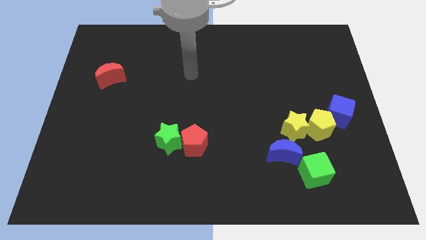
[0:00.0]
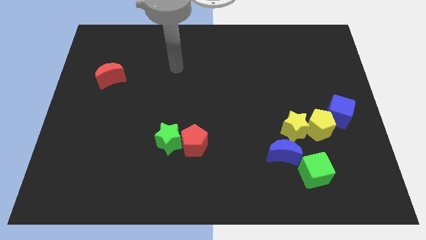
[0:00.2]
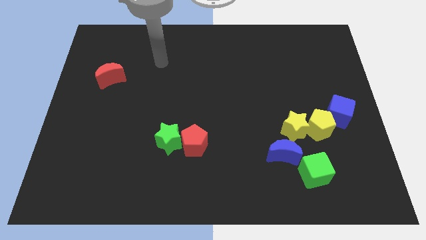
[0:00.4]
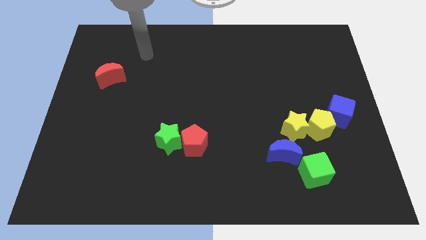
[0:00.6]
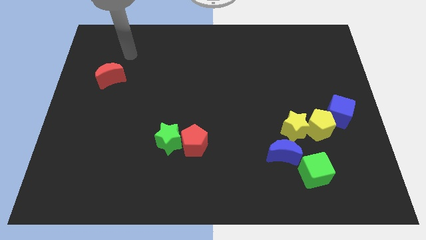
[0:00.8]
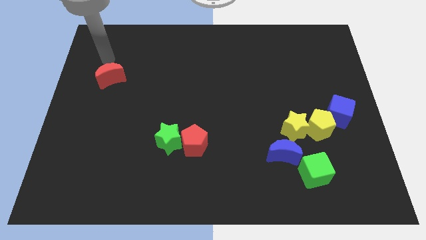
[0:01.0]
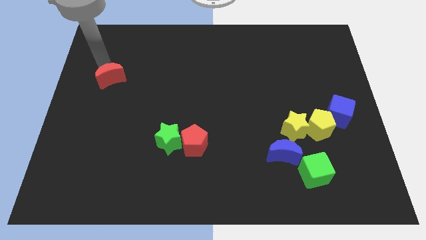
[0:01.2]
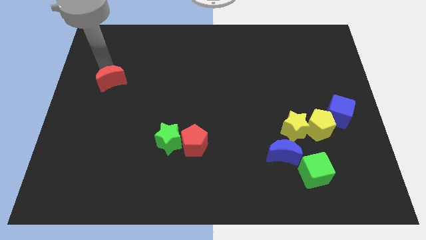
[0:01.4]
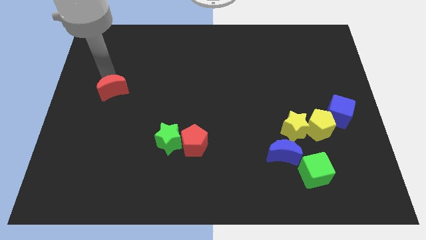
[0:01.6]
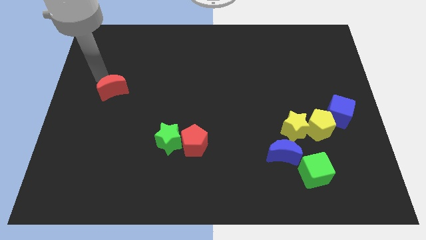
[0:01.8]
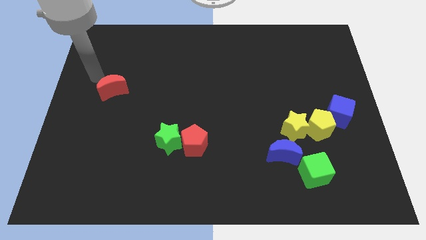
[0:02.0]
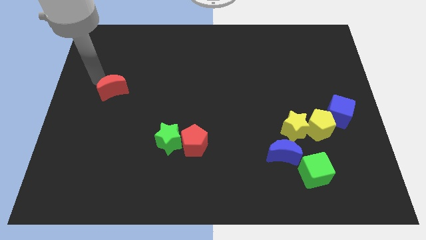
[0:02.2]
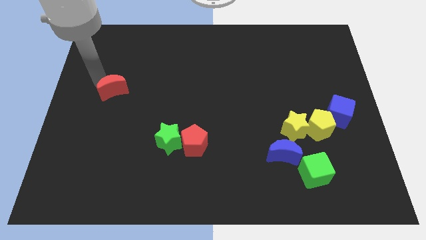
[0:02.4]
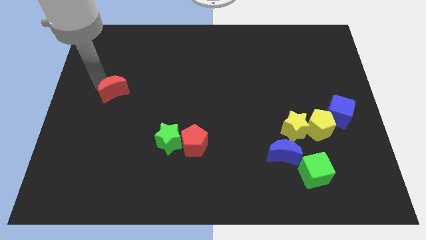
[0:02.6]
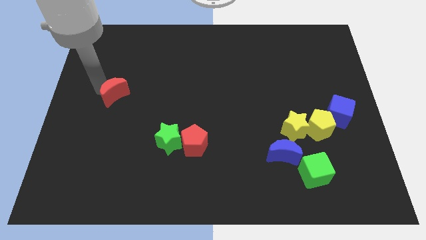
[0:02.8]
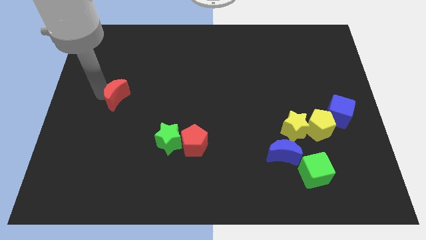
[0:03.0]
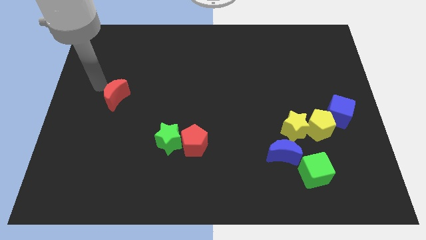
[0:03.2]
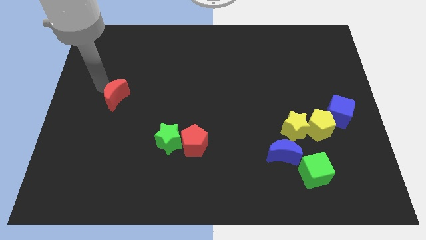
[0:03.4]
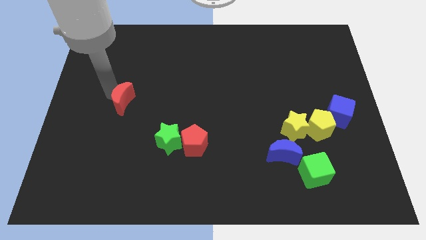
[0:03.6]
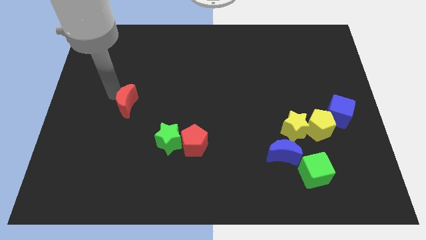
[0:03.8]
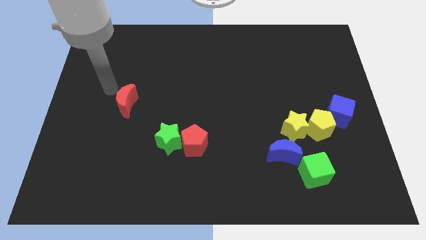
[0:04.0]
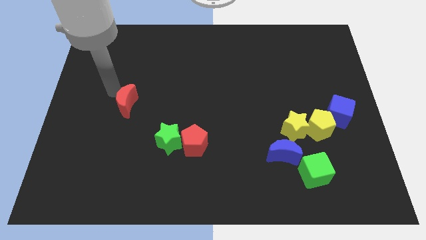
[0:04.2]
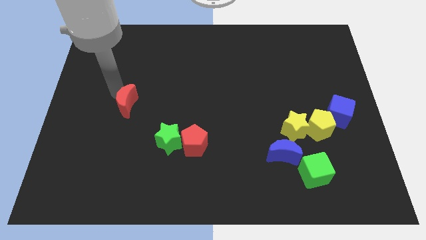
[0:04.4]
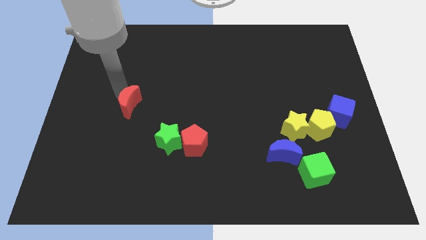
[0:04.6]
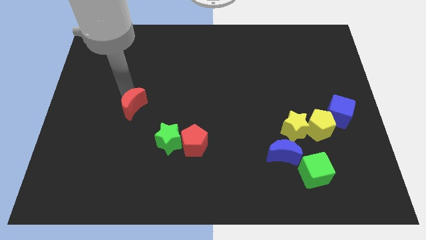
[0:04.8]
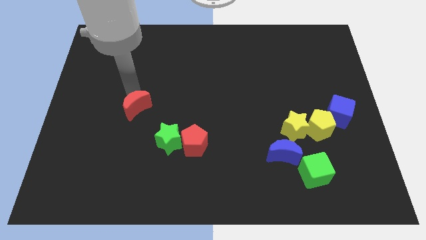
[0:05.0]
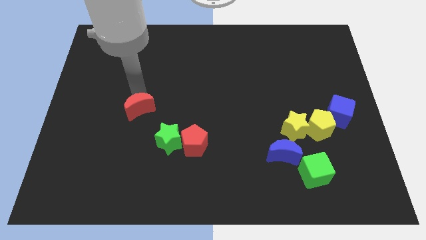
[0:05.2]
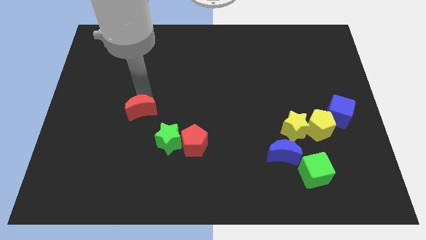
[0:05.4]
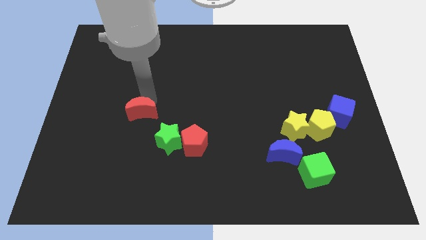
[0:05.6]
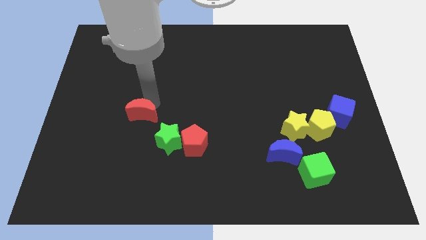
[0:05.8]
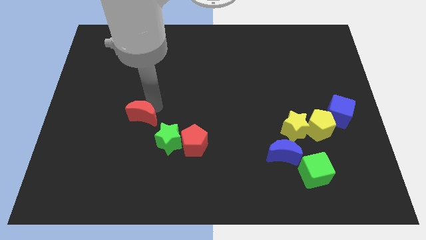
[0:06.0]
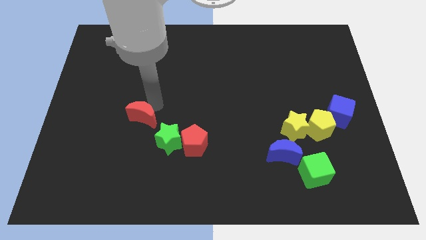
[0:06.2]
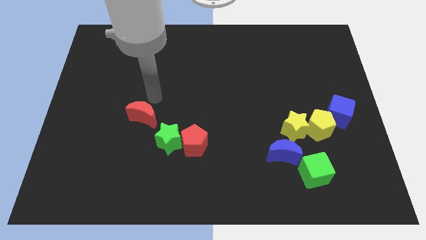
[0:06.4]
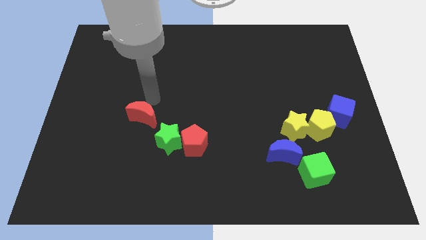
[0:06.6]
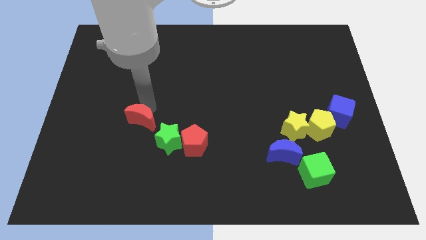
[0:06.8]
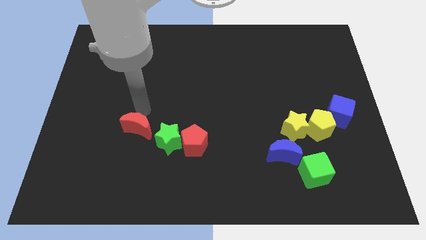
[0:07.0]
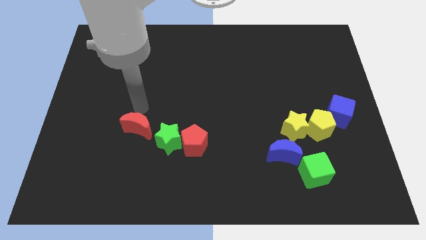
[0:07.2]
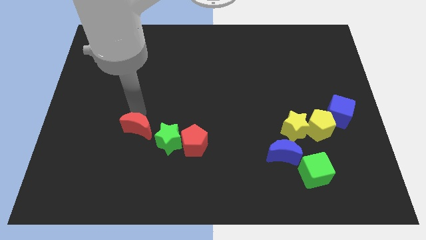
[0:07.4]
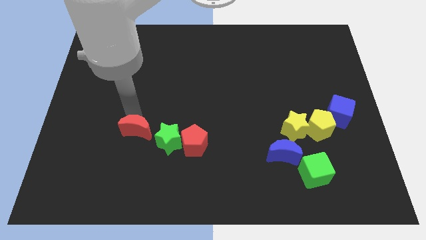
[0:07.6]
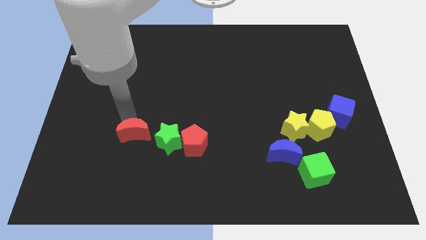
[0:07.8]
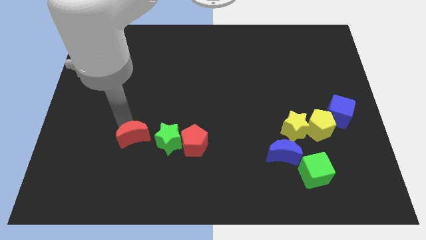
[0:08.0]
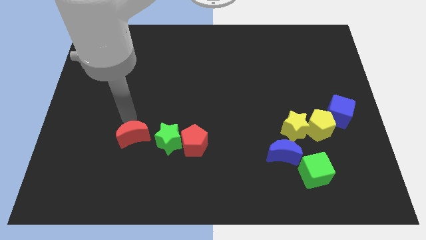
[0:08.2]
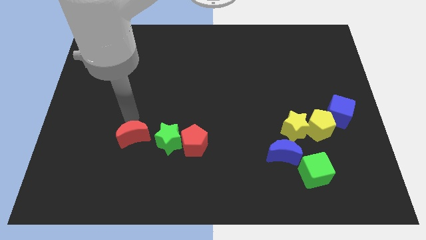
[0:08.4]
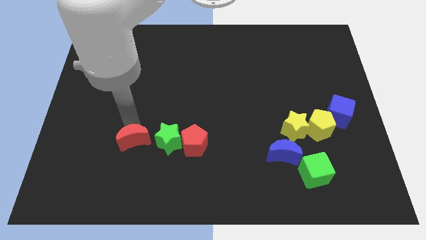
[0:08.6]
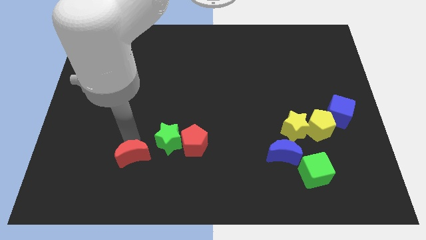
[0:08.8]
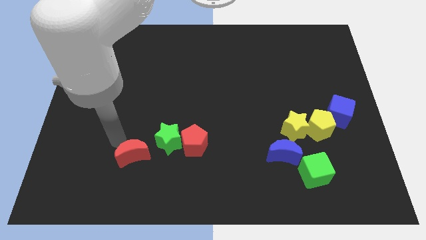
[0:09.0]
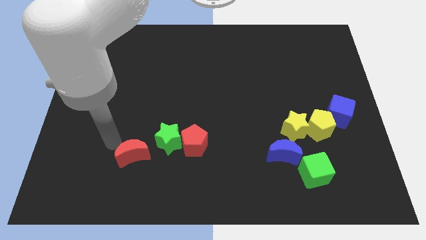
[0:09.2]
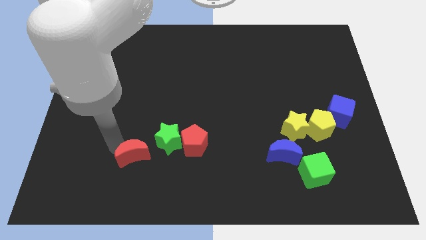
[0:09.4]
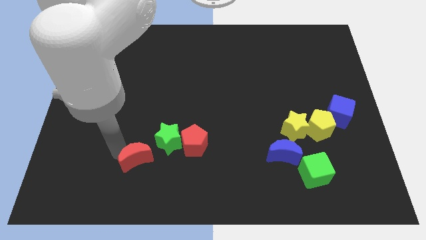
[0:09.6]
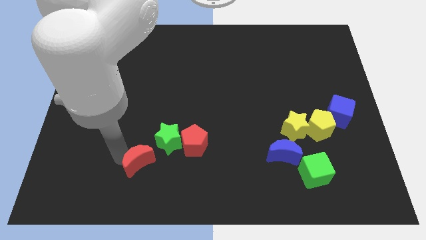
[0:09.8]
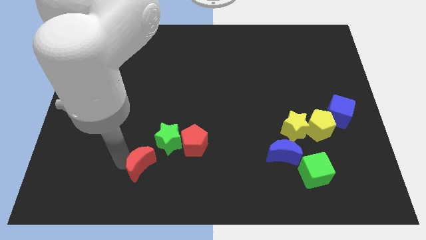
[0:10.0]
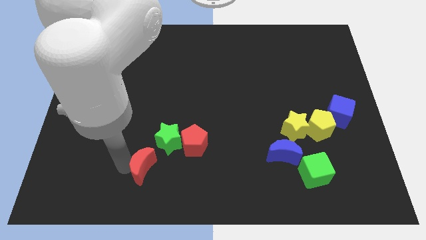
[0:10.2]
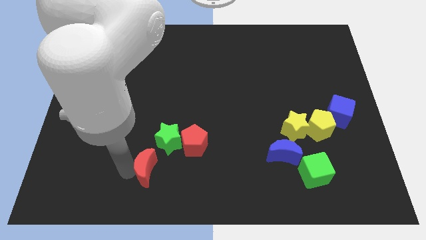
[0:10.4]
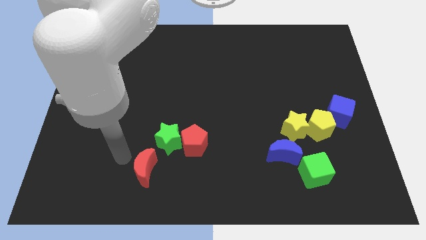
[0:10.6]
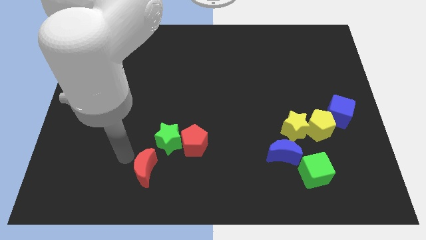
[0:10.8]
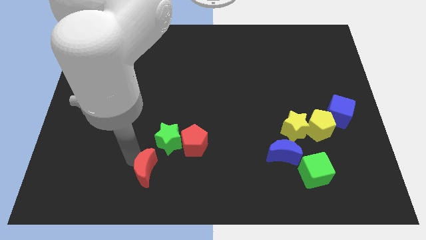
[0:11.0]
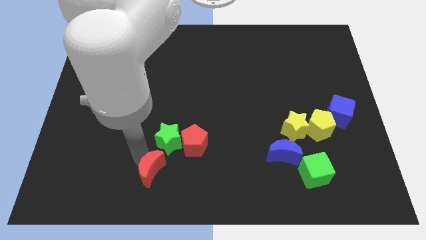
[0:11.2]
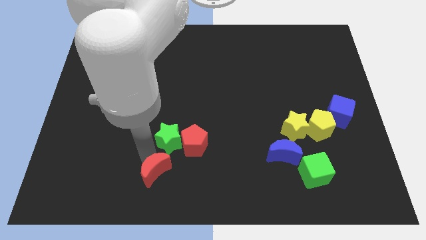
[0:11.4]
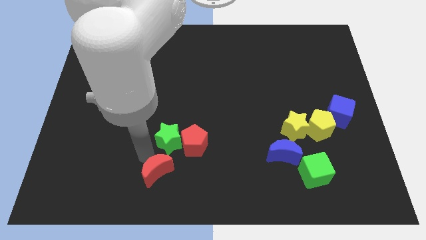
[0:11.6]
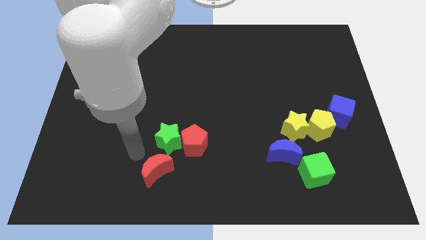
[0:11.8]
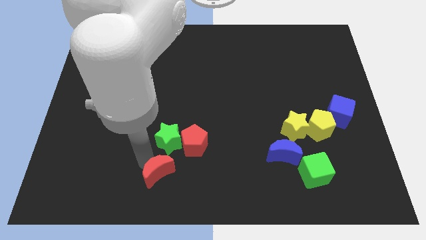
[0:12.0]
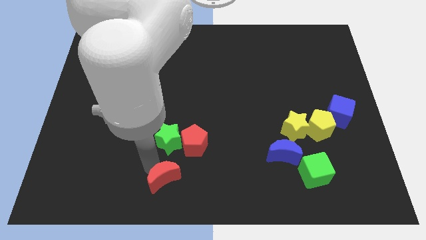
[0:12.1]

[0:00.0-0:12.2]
push the red moon to the bottom side
